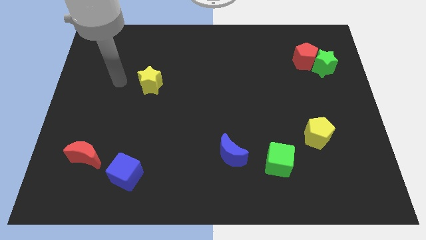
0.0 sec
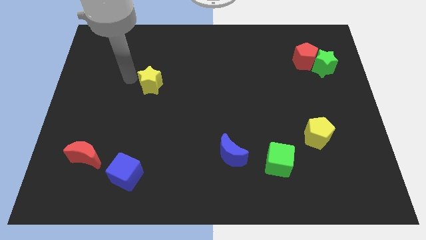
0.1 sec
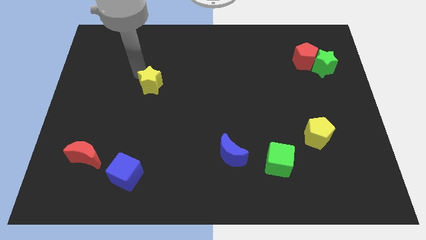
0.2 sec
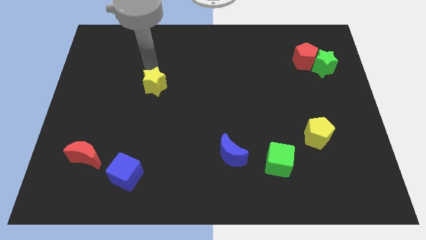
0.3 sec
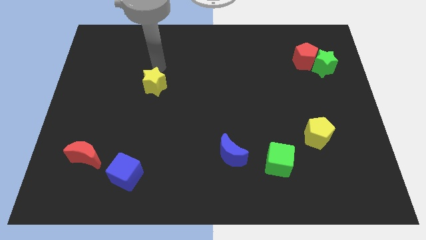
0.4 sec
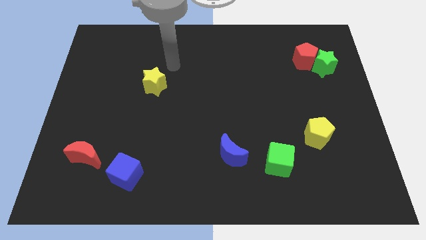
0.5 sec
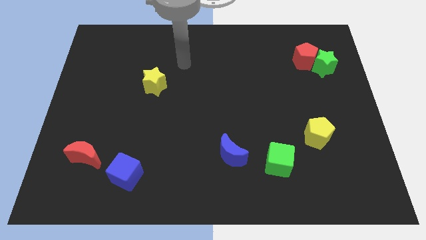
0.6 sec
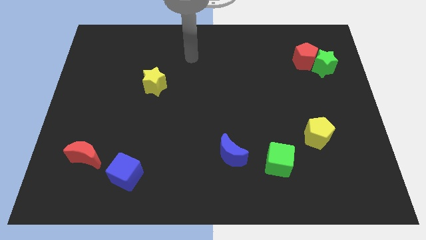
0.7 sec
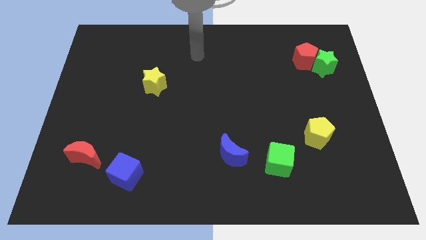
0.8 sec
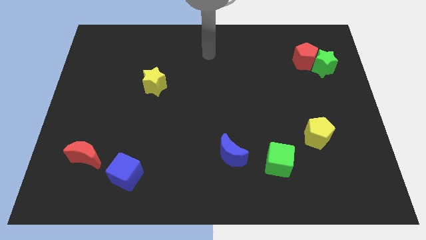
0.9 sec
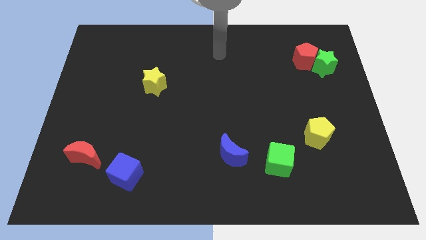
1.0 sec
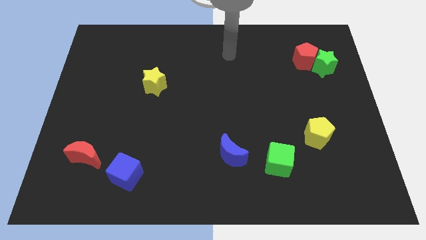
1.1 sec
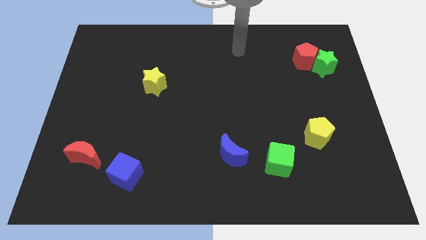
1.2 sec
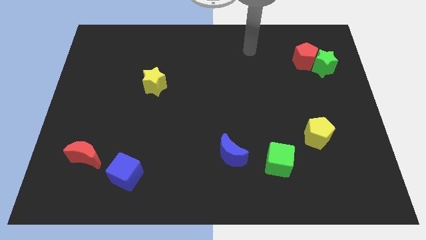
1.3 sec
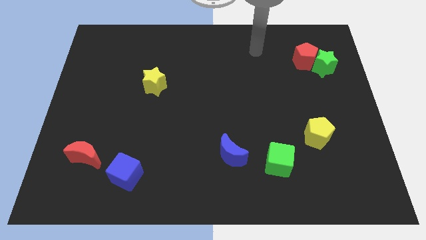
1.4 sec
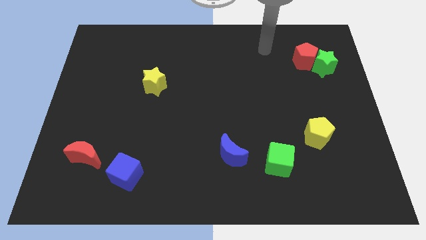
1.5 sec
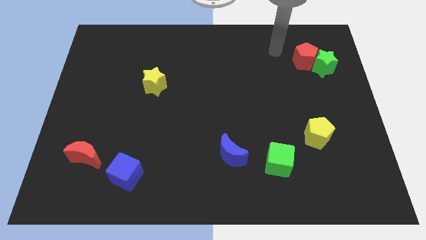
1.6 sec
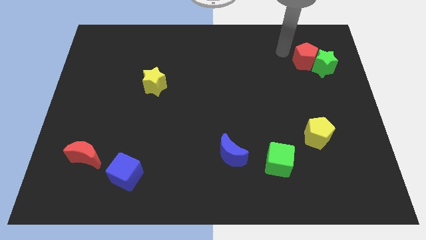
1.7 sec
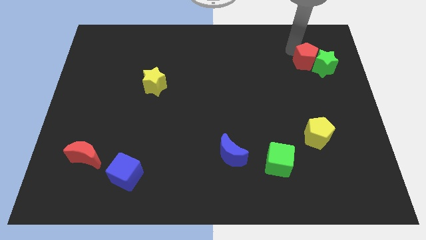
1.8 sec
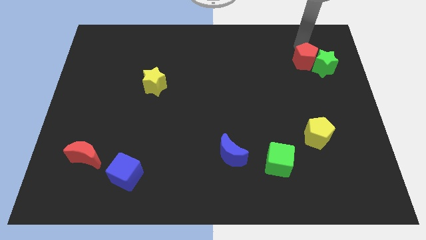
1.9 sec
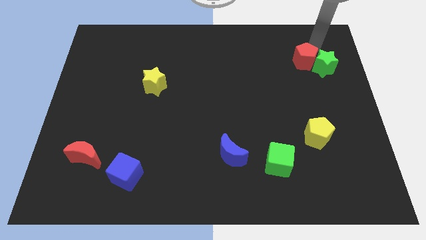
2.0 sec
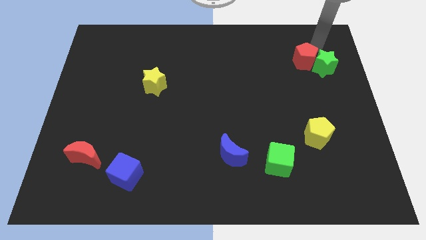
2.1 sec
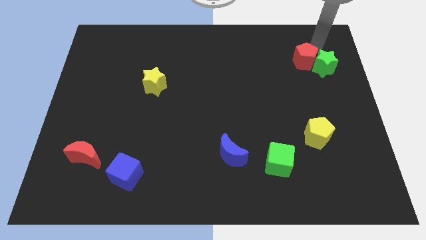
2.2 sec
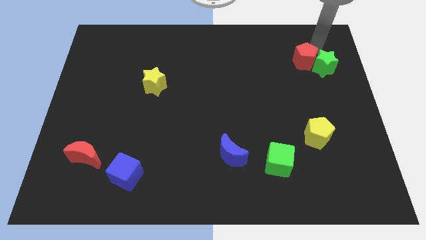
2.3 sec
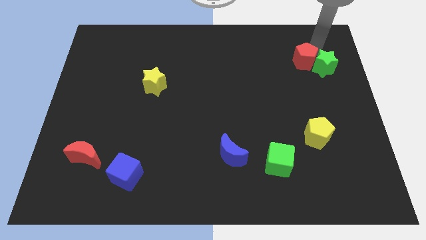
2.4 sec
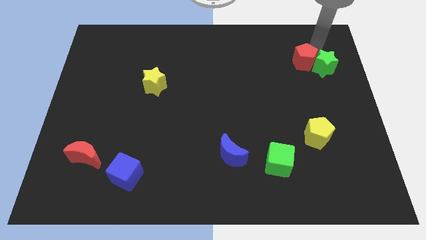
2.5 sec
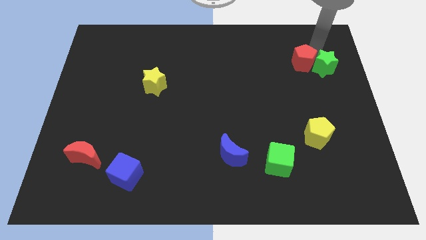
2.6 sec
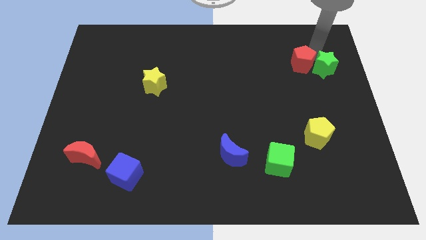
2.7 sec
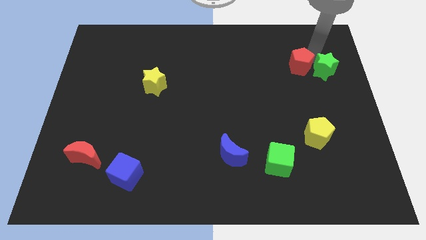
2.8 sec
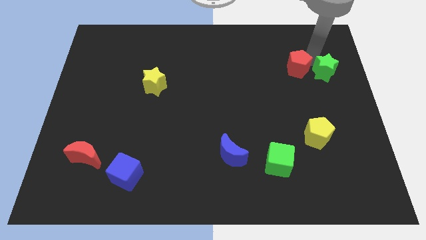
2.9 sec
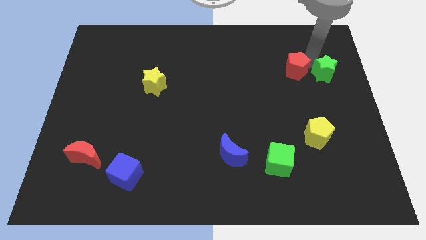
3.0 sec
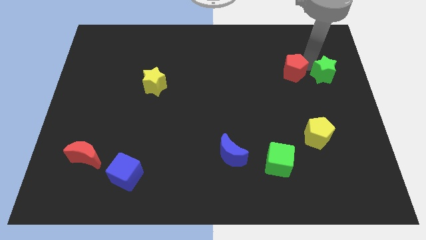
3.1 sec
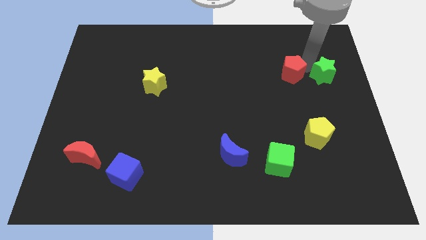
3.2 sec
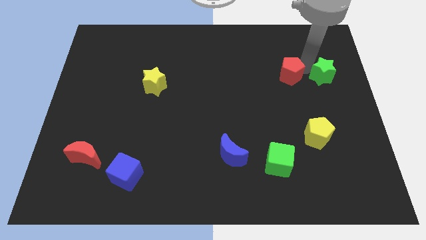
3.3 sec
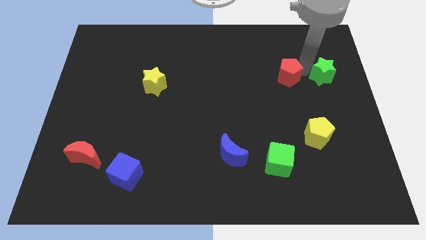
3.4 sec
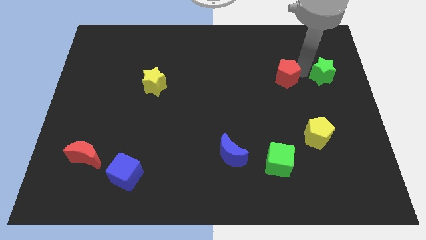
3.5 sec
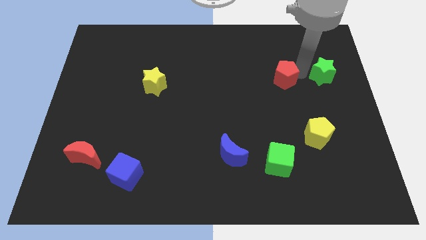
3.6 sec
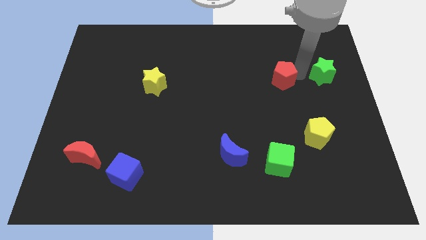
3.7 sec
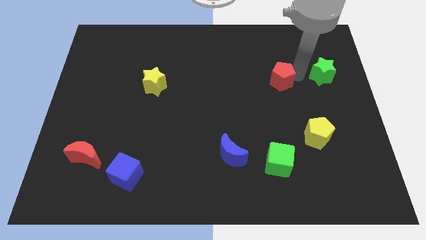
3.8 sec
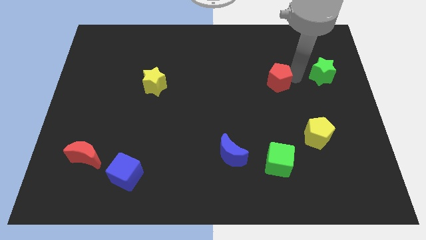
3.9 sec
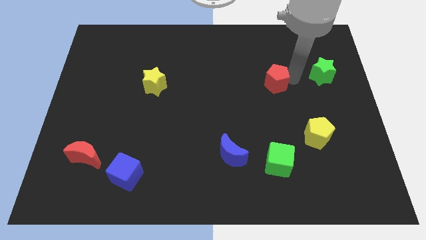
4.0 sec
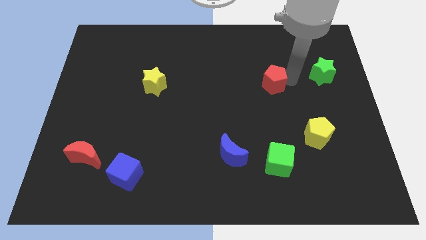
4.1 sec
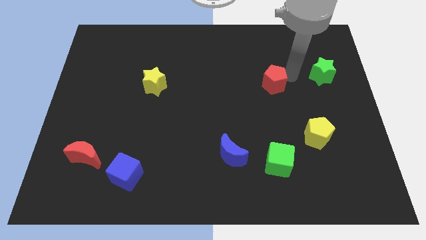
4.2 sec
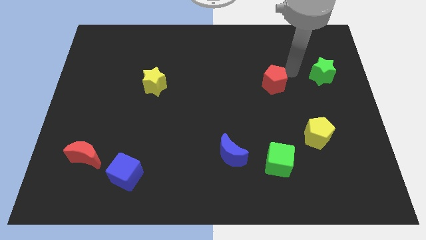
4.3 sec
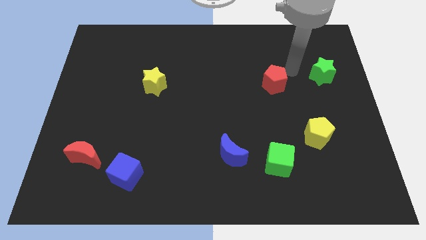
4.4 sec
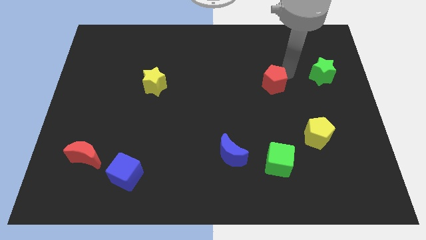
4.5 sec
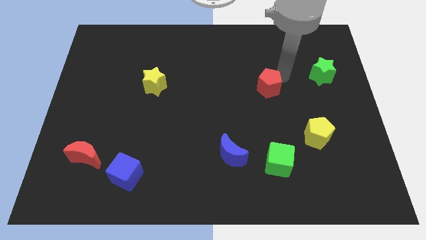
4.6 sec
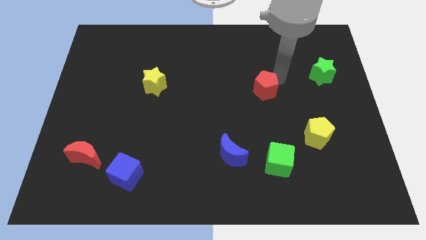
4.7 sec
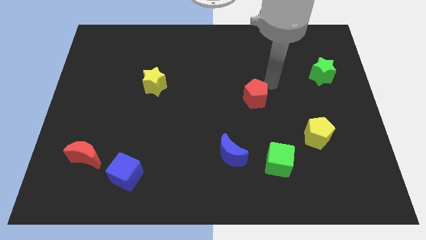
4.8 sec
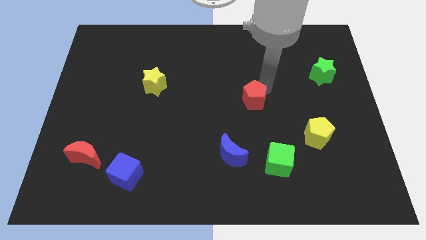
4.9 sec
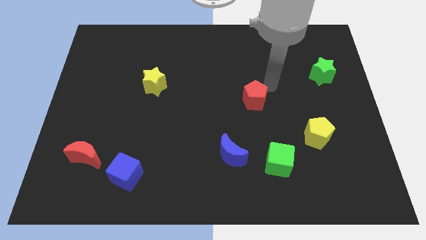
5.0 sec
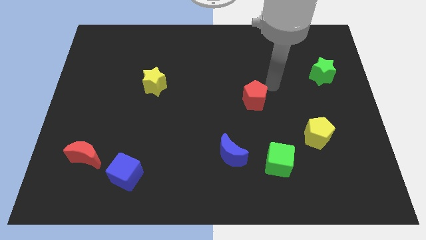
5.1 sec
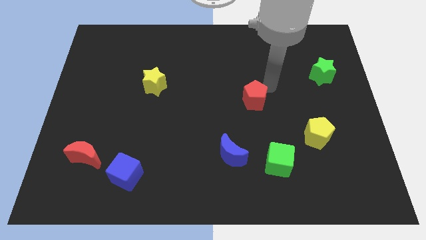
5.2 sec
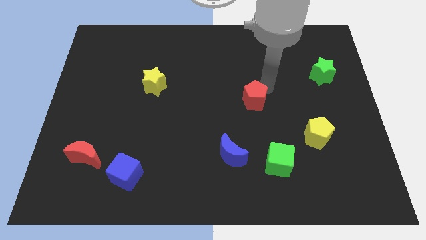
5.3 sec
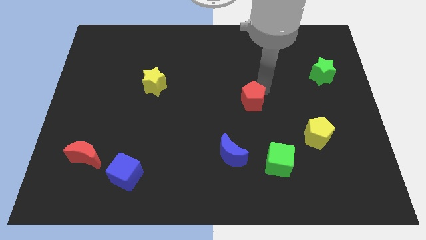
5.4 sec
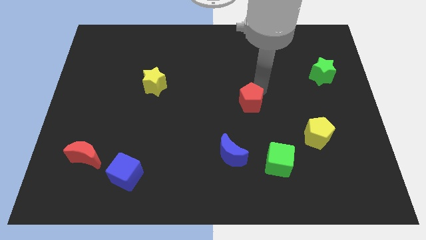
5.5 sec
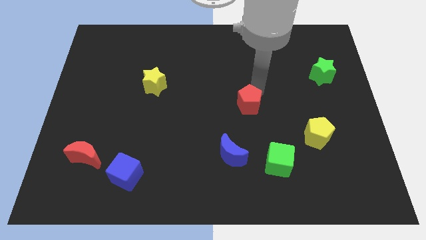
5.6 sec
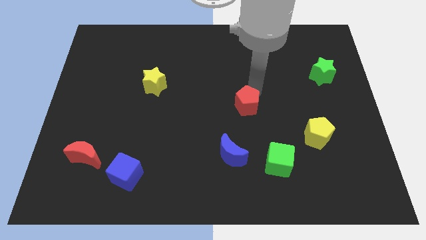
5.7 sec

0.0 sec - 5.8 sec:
put the red pentagon to the top of the blue moon
